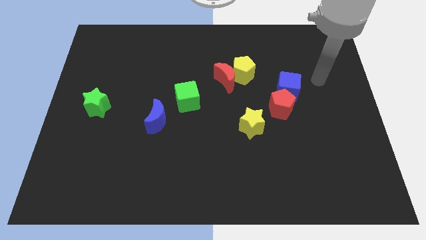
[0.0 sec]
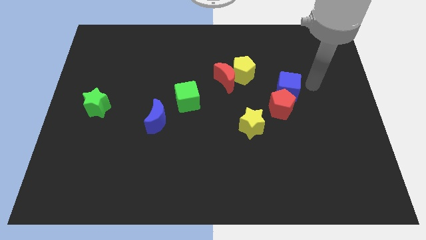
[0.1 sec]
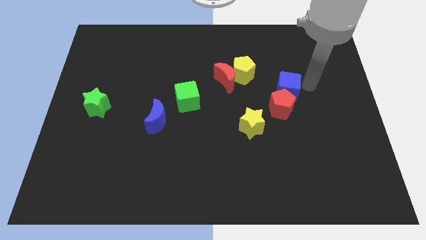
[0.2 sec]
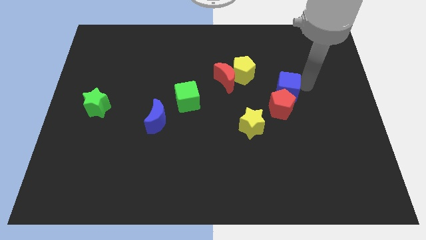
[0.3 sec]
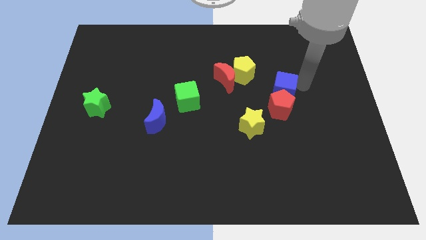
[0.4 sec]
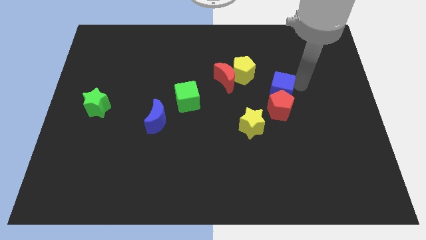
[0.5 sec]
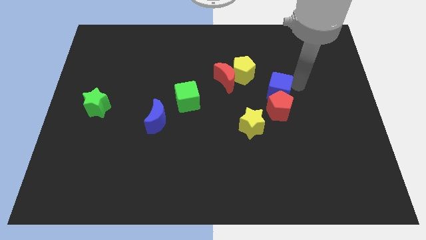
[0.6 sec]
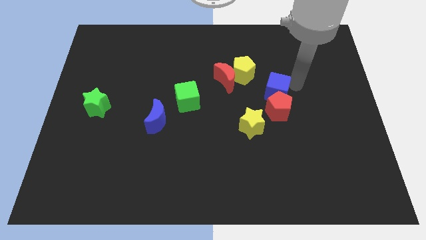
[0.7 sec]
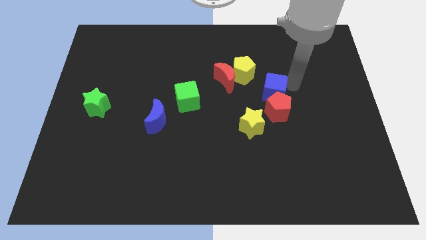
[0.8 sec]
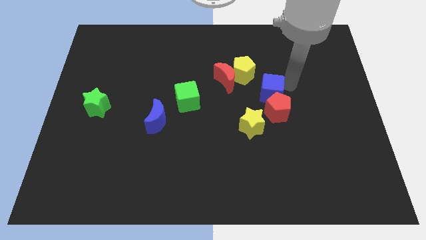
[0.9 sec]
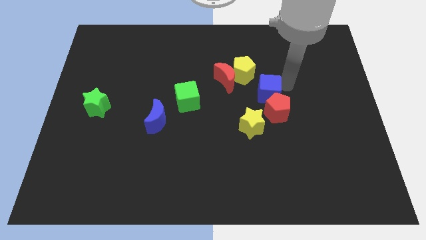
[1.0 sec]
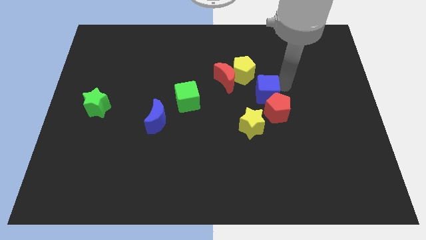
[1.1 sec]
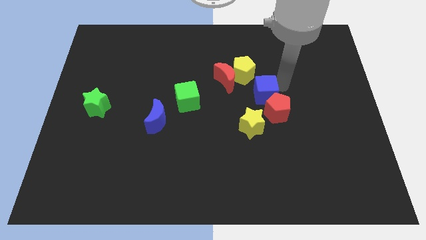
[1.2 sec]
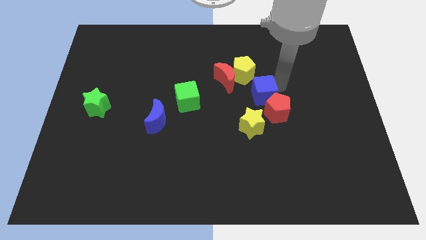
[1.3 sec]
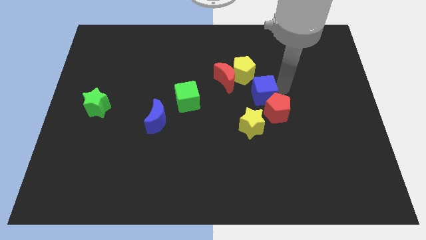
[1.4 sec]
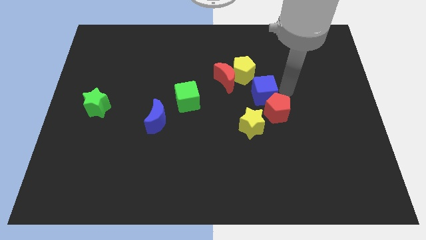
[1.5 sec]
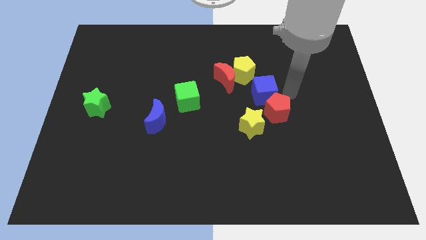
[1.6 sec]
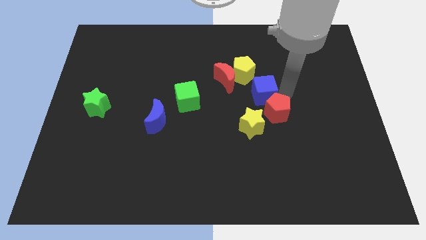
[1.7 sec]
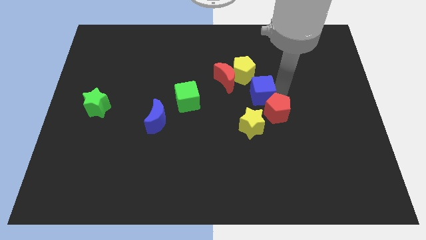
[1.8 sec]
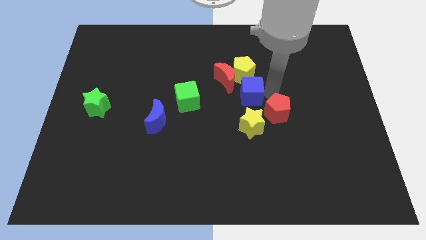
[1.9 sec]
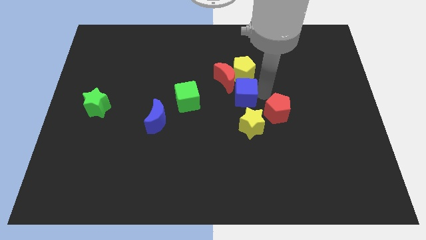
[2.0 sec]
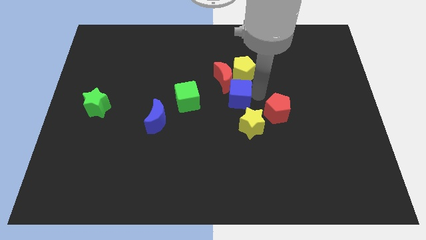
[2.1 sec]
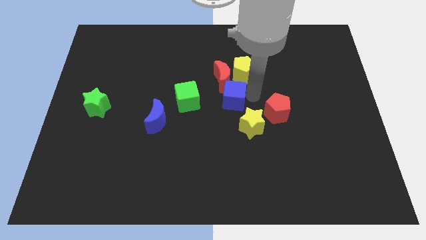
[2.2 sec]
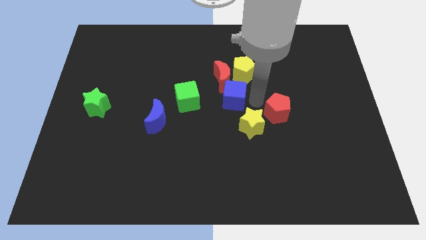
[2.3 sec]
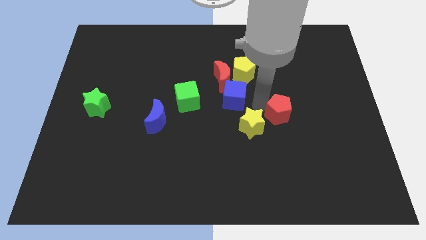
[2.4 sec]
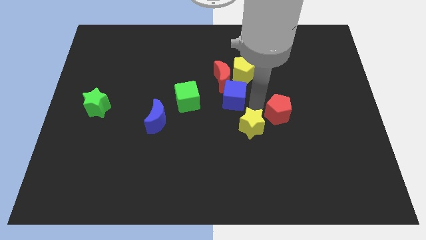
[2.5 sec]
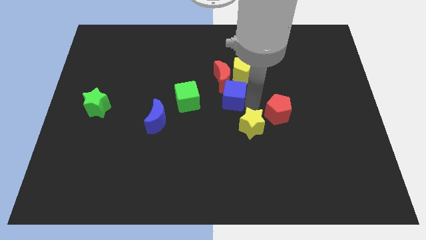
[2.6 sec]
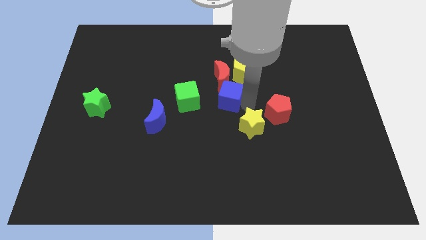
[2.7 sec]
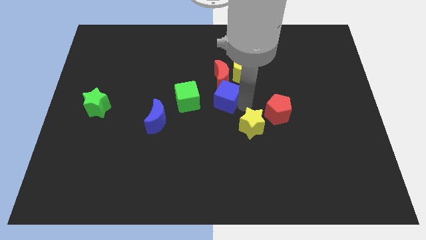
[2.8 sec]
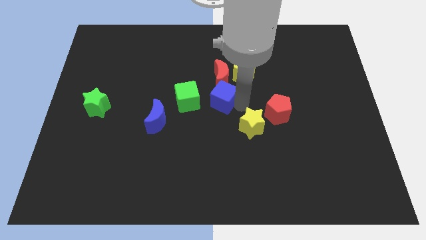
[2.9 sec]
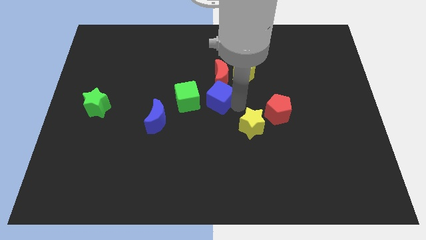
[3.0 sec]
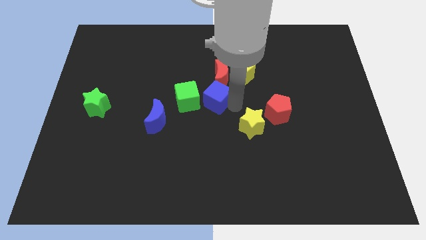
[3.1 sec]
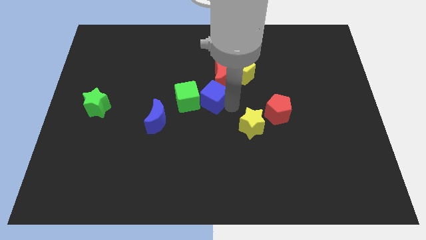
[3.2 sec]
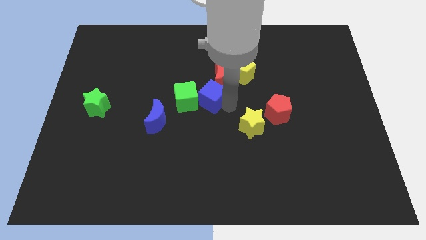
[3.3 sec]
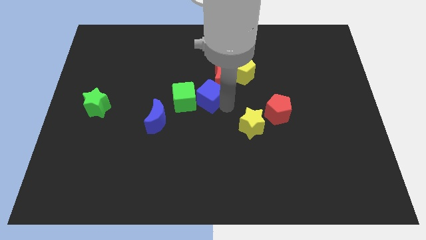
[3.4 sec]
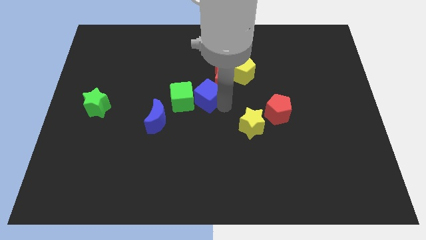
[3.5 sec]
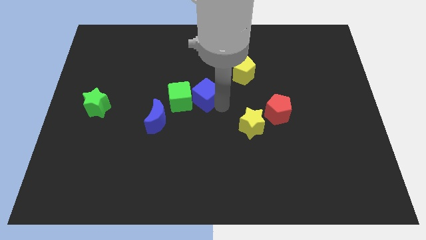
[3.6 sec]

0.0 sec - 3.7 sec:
slide the blue cube to the left

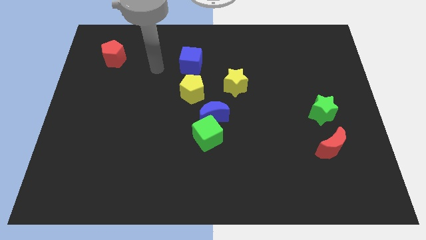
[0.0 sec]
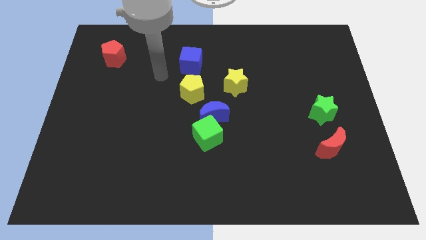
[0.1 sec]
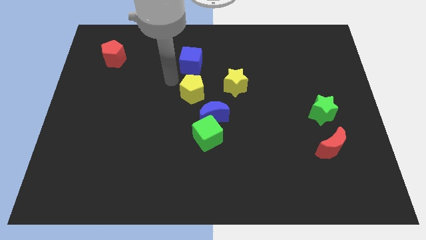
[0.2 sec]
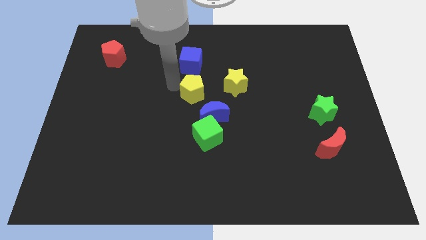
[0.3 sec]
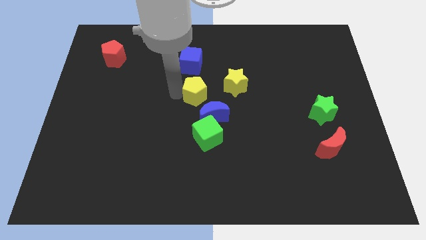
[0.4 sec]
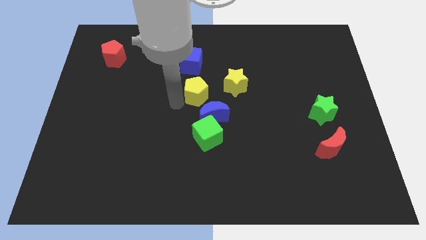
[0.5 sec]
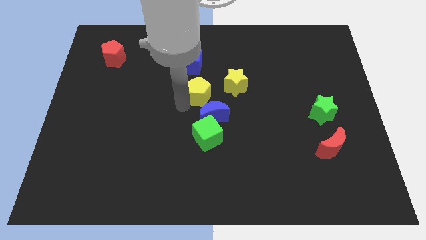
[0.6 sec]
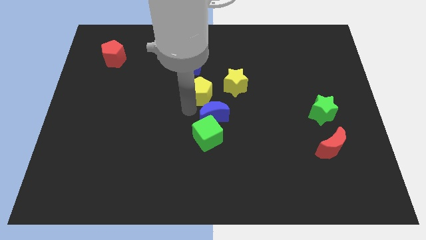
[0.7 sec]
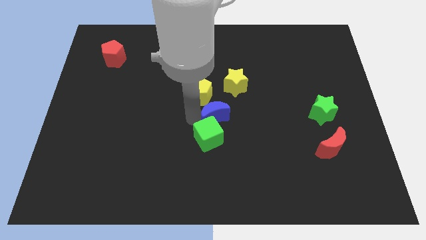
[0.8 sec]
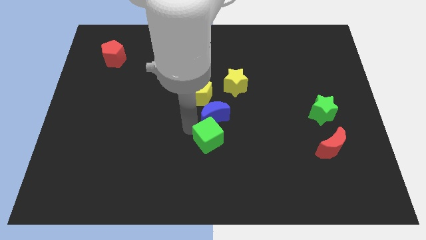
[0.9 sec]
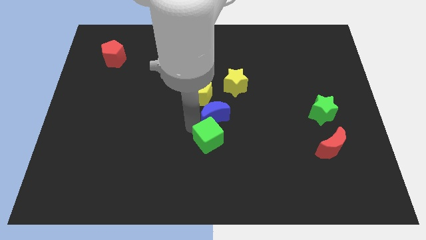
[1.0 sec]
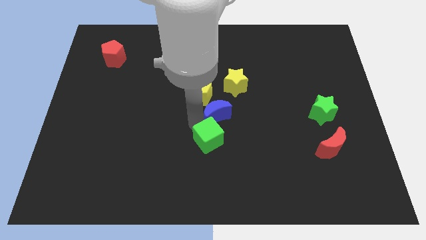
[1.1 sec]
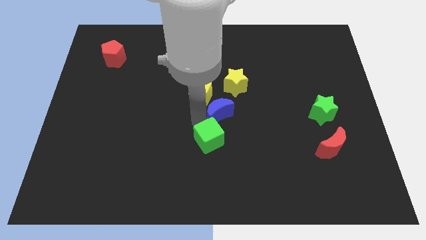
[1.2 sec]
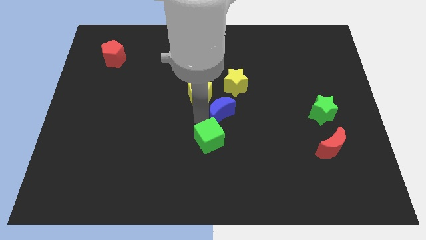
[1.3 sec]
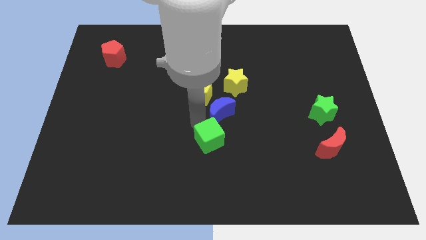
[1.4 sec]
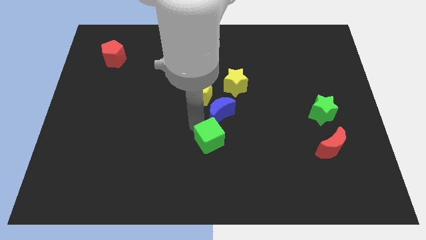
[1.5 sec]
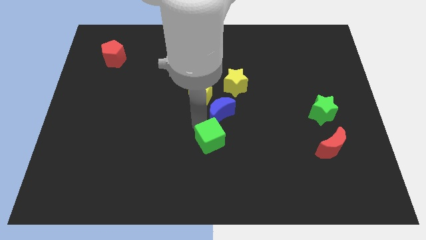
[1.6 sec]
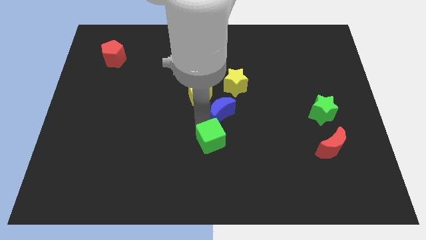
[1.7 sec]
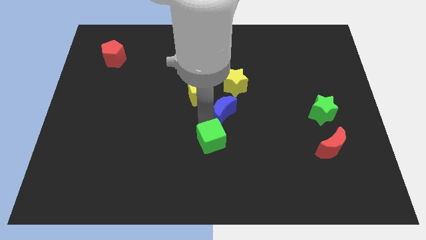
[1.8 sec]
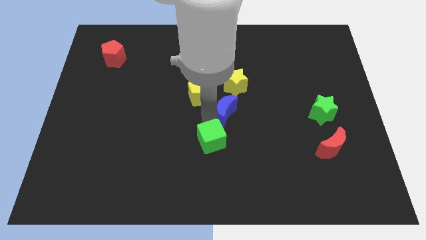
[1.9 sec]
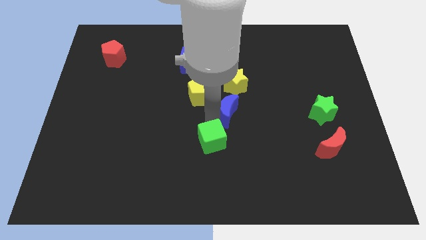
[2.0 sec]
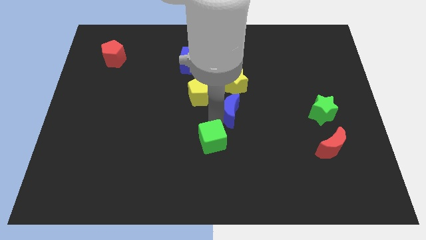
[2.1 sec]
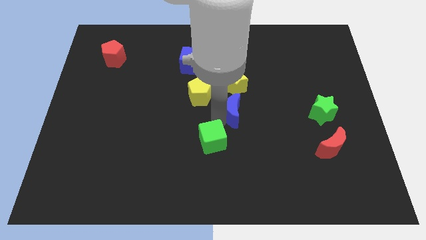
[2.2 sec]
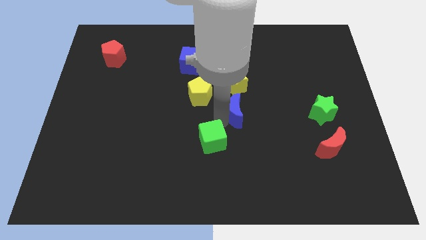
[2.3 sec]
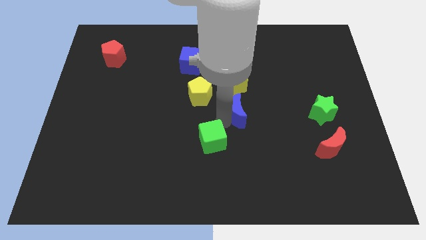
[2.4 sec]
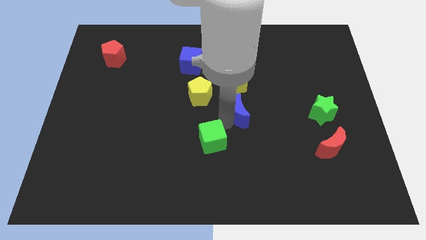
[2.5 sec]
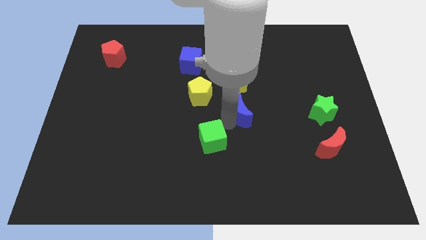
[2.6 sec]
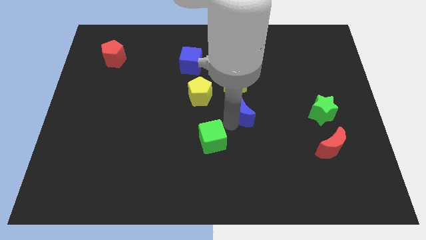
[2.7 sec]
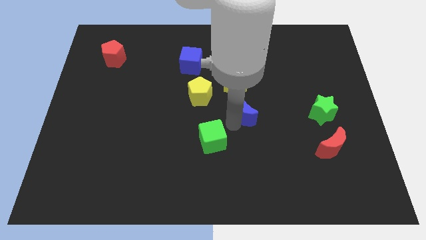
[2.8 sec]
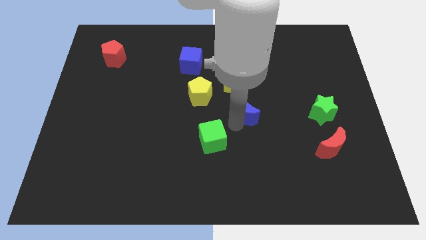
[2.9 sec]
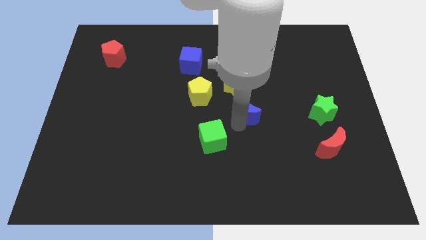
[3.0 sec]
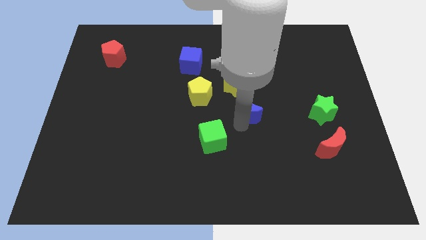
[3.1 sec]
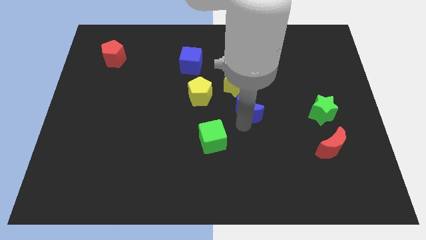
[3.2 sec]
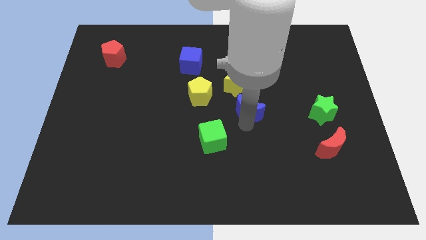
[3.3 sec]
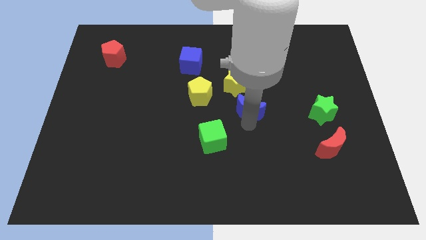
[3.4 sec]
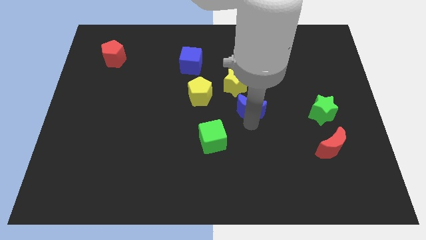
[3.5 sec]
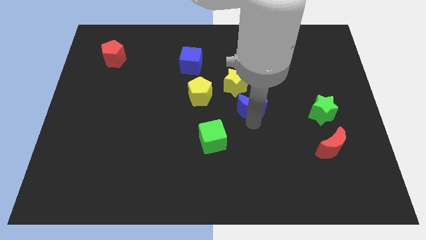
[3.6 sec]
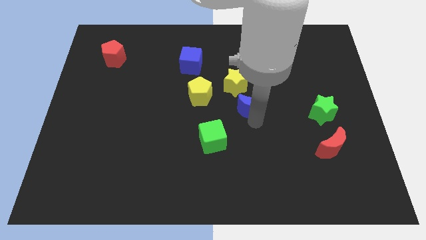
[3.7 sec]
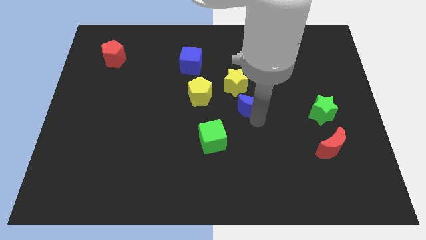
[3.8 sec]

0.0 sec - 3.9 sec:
move the blue moon upwards and then right a little

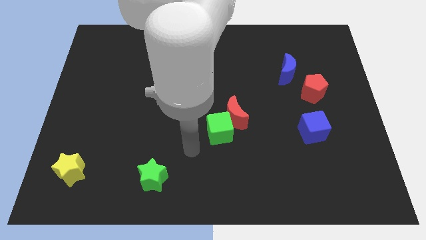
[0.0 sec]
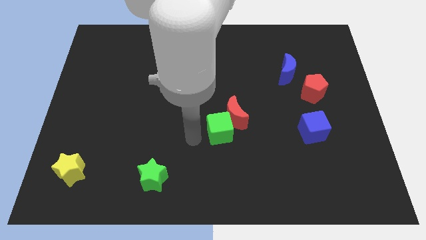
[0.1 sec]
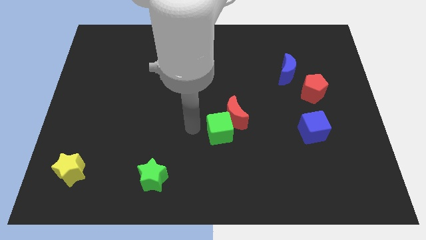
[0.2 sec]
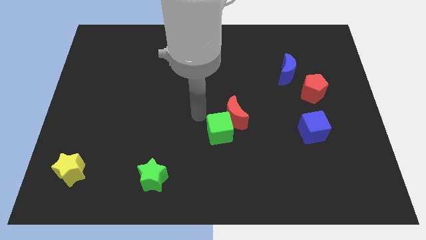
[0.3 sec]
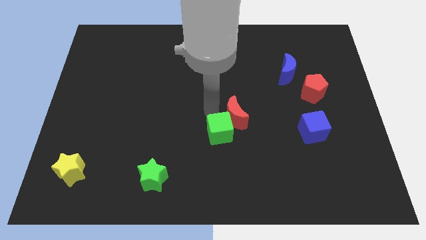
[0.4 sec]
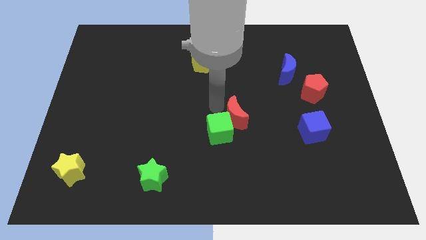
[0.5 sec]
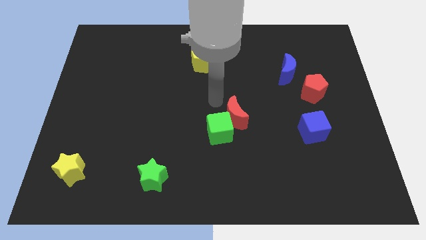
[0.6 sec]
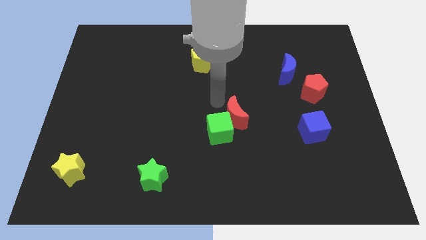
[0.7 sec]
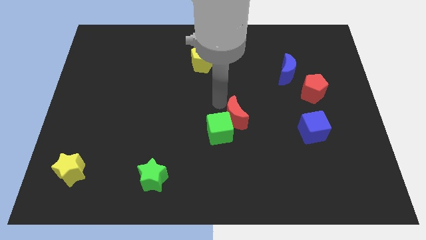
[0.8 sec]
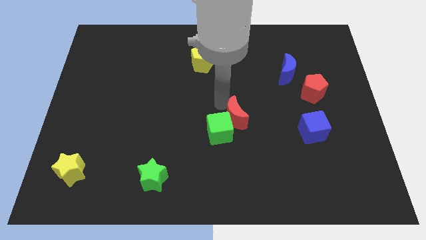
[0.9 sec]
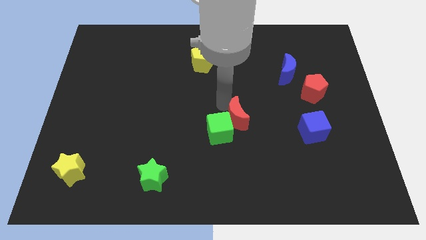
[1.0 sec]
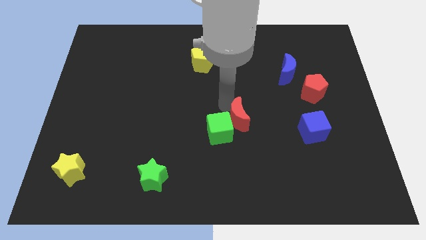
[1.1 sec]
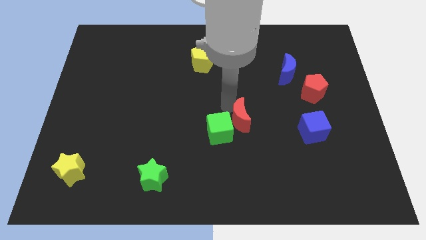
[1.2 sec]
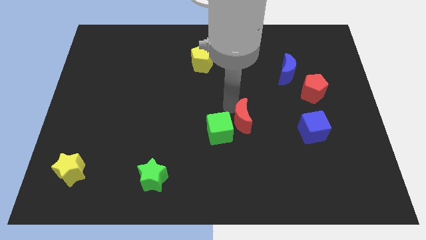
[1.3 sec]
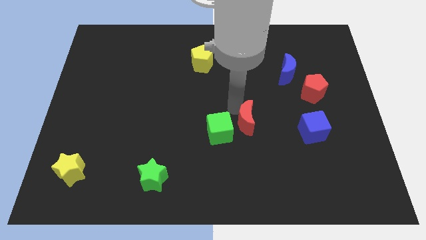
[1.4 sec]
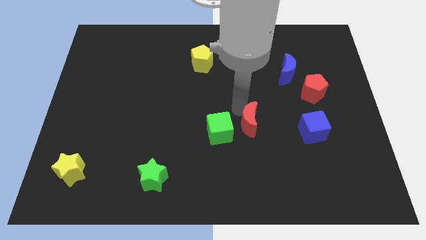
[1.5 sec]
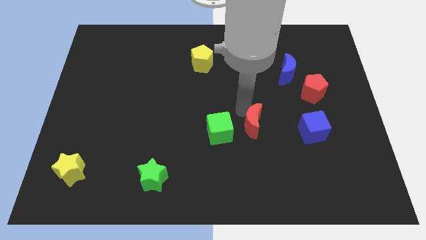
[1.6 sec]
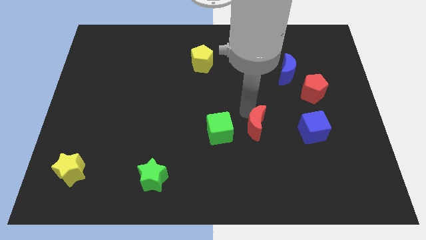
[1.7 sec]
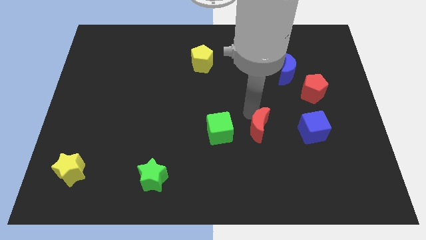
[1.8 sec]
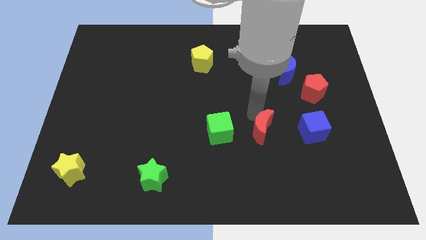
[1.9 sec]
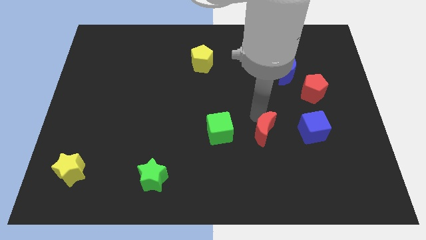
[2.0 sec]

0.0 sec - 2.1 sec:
slightly push the red moon downwards and to the right
